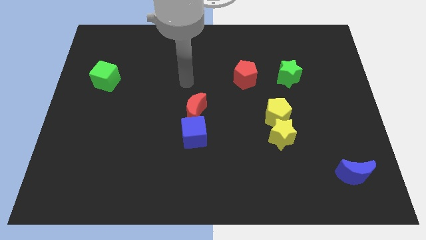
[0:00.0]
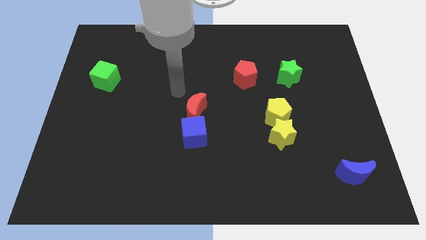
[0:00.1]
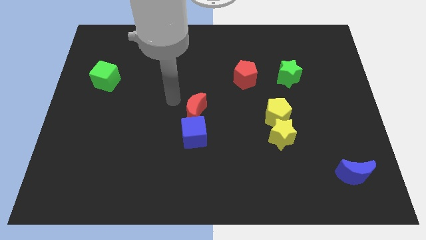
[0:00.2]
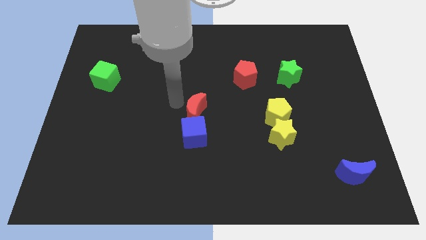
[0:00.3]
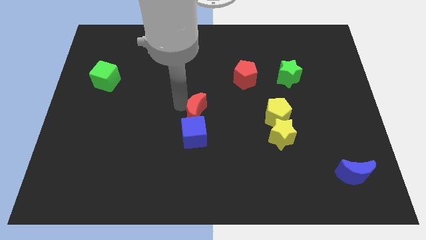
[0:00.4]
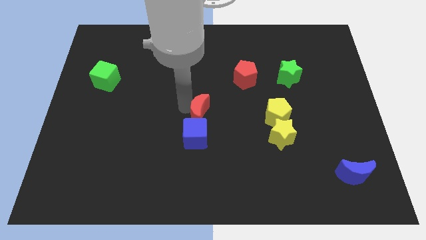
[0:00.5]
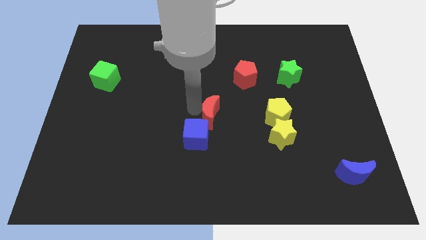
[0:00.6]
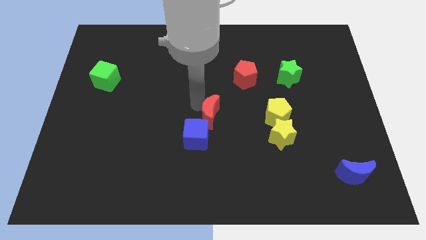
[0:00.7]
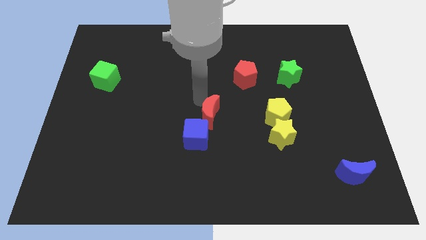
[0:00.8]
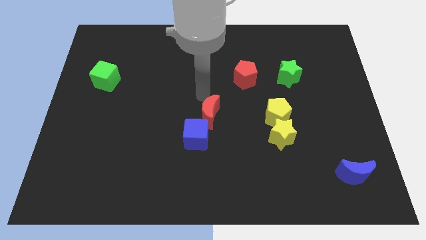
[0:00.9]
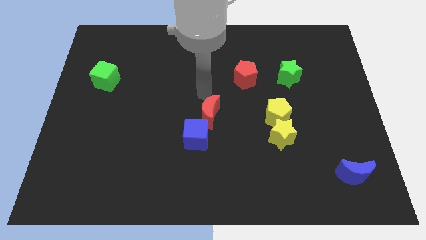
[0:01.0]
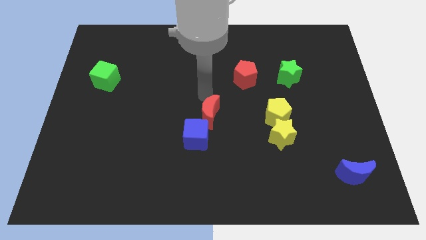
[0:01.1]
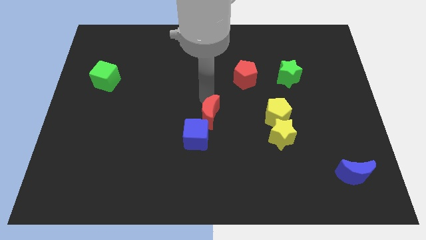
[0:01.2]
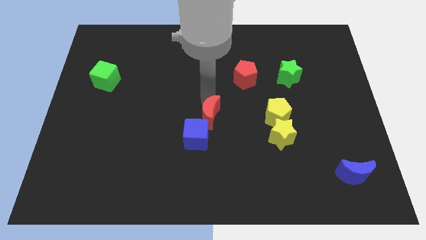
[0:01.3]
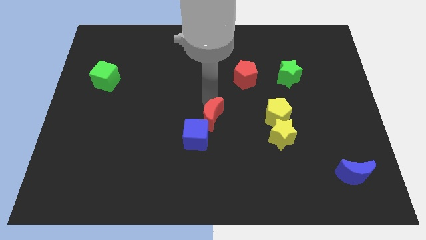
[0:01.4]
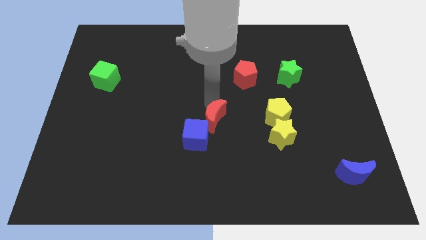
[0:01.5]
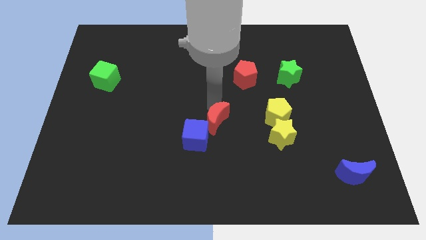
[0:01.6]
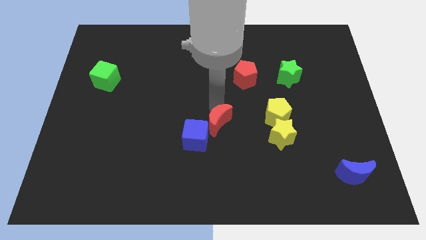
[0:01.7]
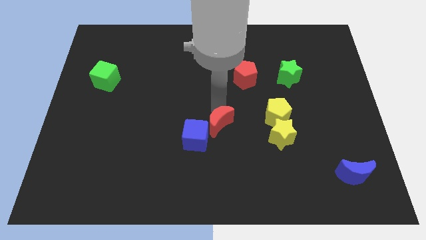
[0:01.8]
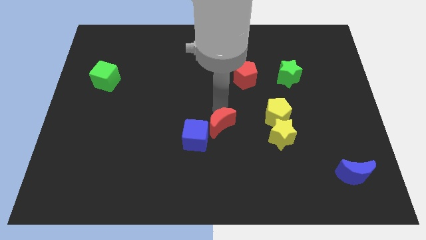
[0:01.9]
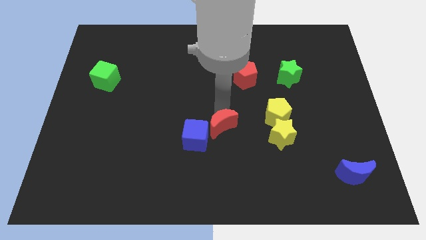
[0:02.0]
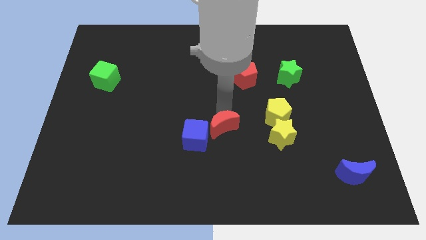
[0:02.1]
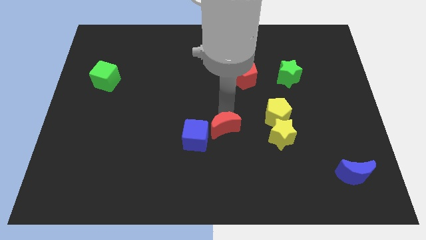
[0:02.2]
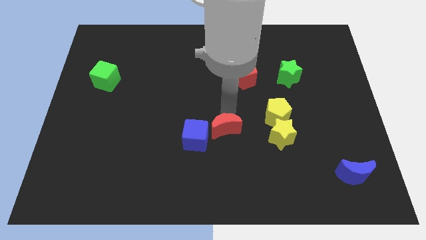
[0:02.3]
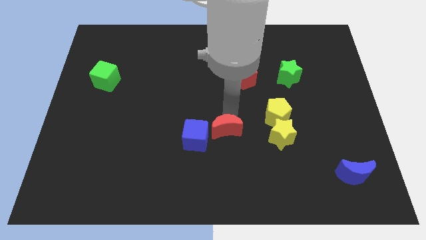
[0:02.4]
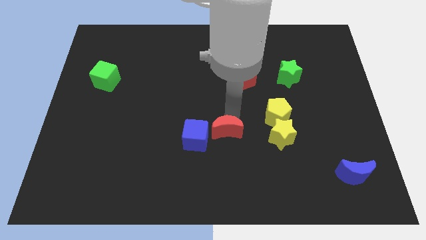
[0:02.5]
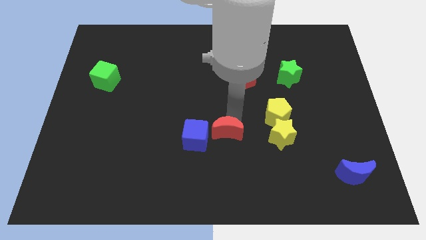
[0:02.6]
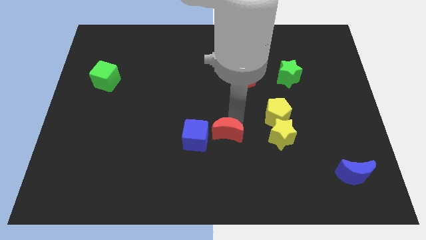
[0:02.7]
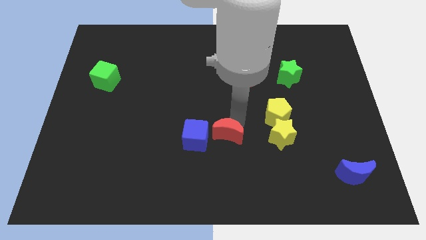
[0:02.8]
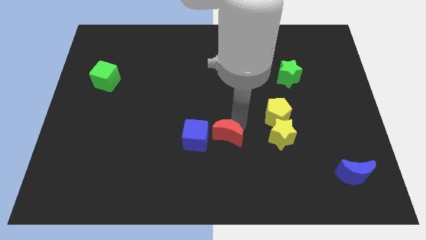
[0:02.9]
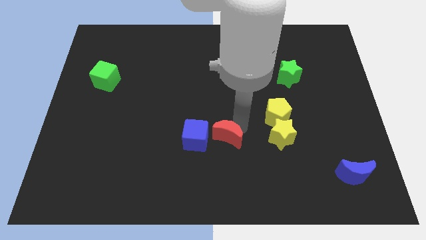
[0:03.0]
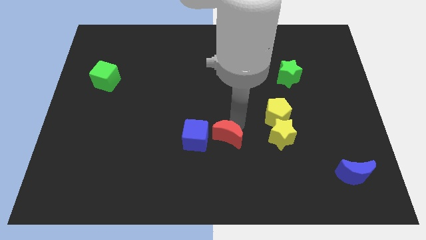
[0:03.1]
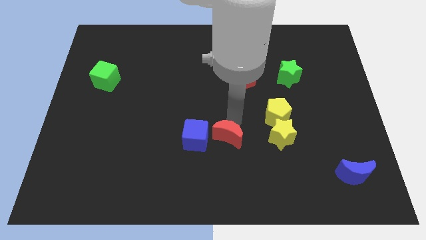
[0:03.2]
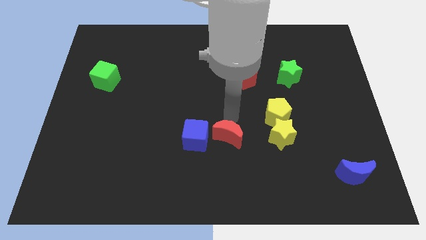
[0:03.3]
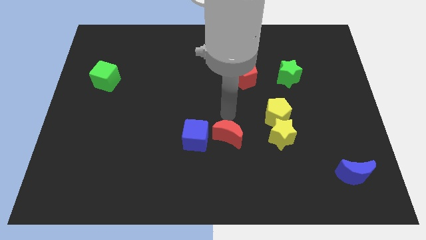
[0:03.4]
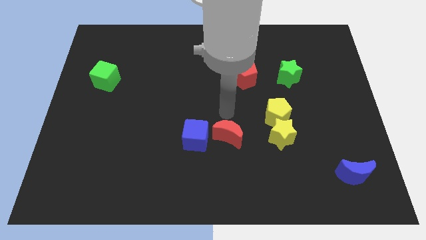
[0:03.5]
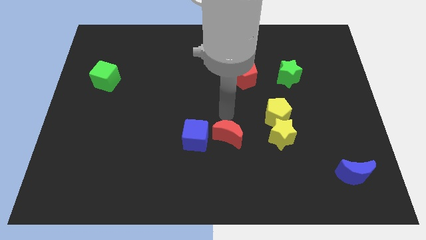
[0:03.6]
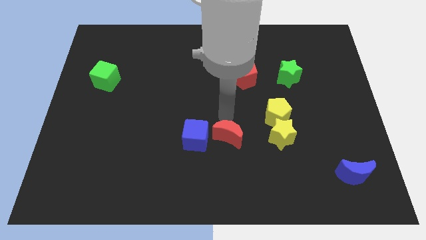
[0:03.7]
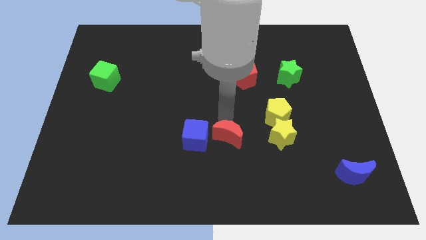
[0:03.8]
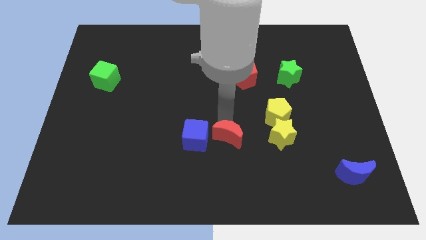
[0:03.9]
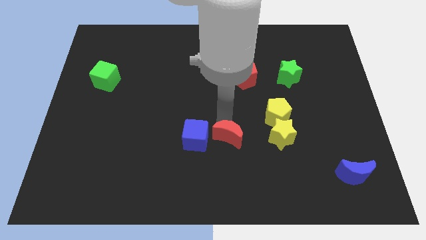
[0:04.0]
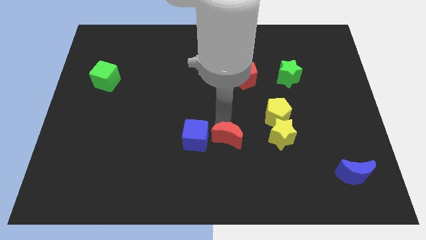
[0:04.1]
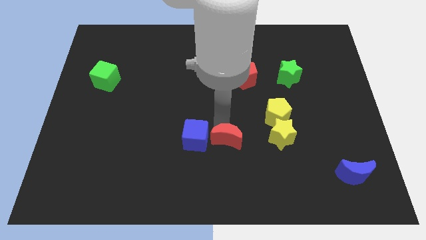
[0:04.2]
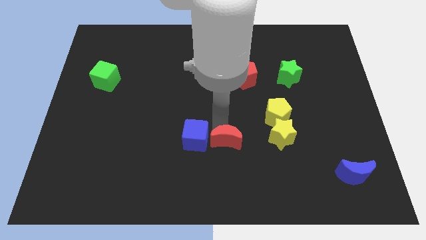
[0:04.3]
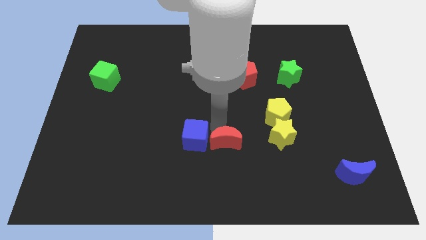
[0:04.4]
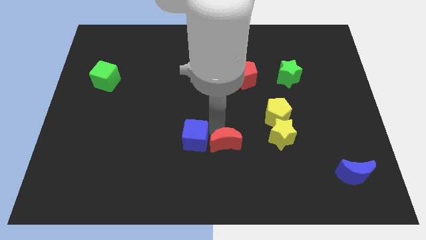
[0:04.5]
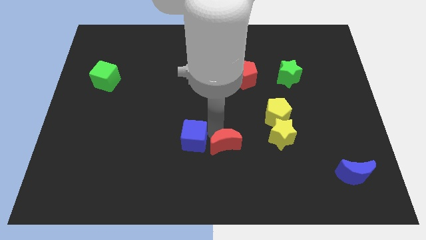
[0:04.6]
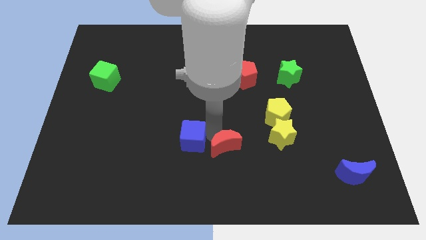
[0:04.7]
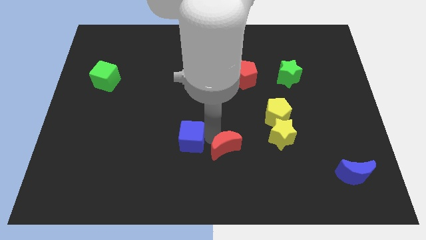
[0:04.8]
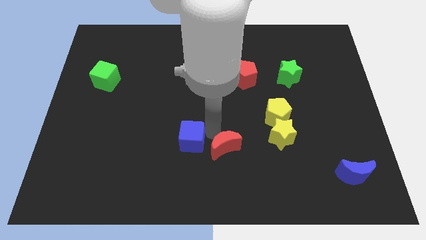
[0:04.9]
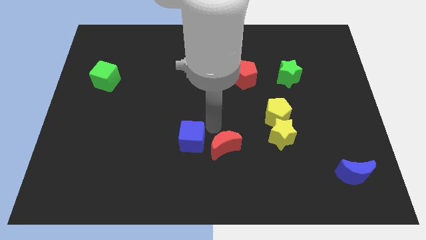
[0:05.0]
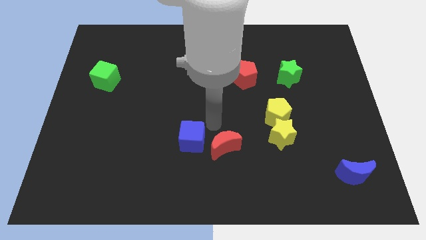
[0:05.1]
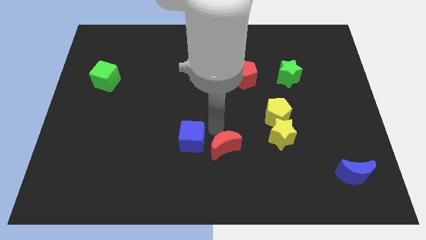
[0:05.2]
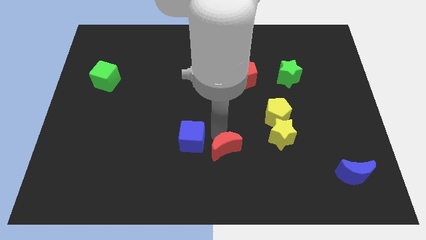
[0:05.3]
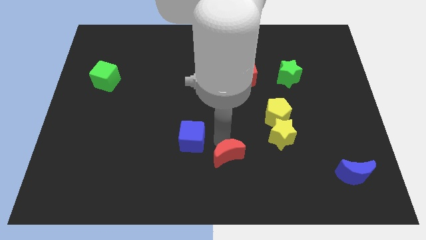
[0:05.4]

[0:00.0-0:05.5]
push the red moon to the bottom

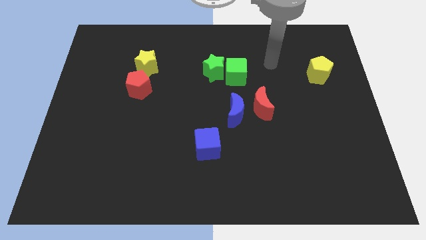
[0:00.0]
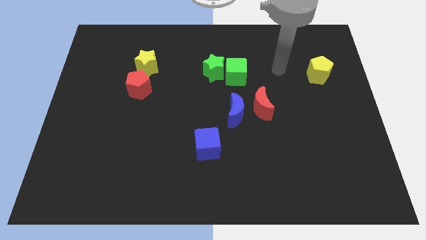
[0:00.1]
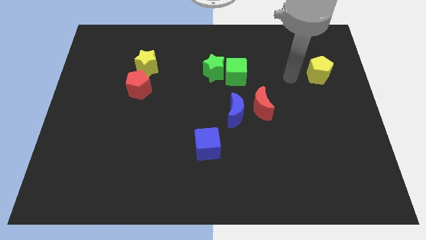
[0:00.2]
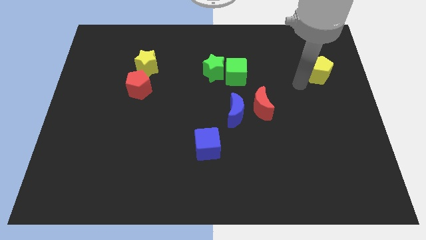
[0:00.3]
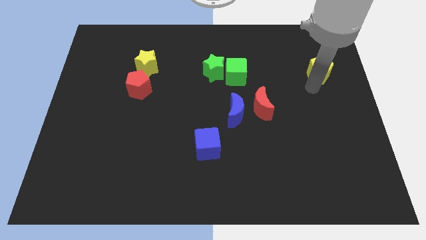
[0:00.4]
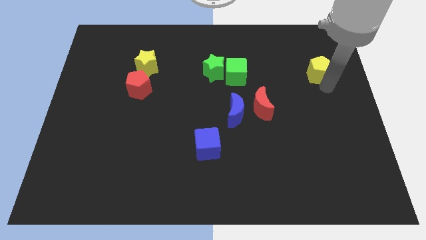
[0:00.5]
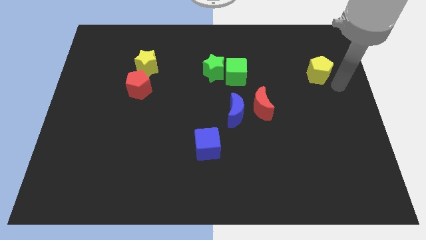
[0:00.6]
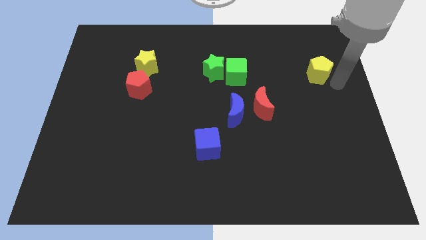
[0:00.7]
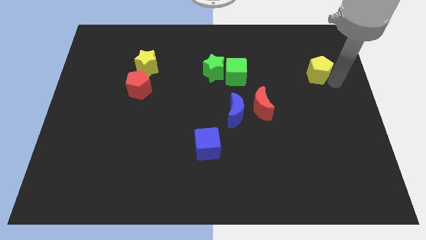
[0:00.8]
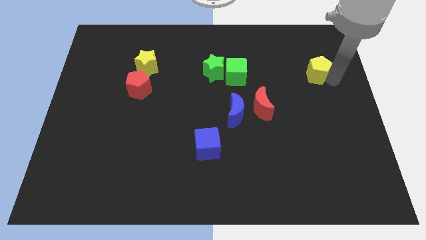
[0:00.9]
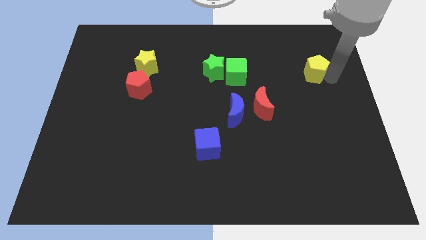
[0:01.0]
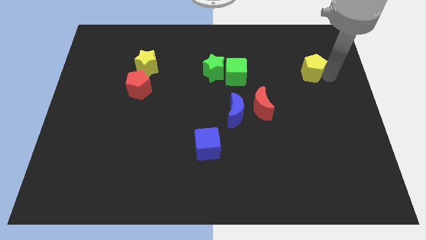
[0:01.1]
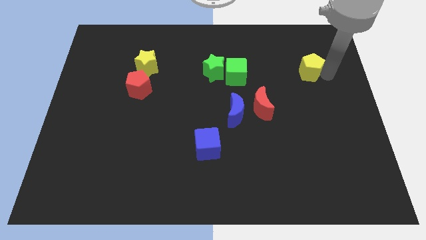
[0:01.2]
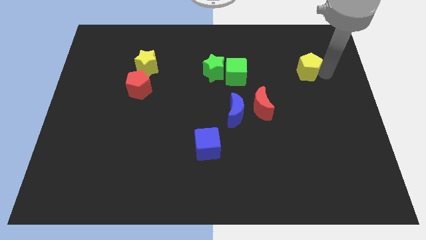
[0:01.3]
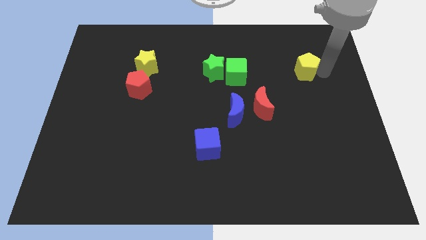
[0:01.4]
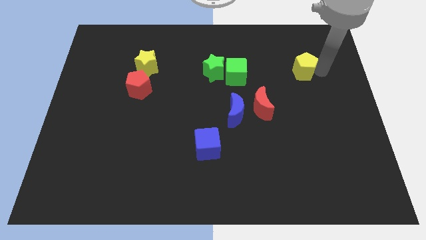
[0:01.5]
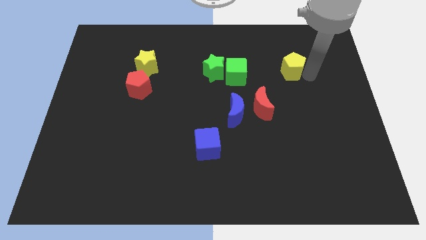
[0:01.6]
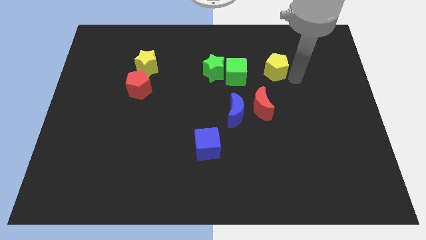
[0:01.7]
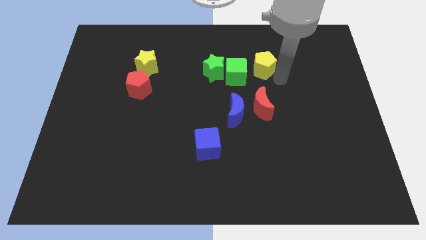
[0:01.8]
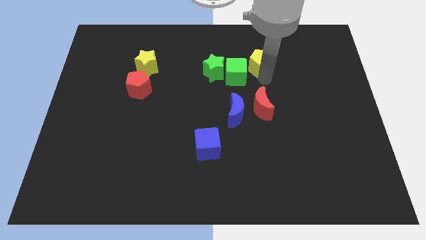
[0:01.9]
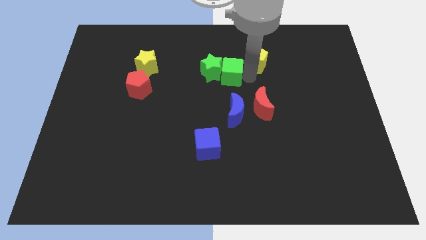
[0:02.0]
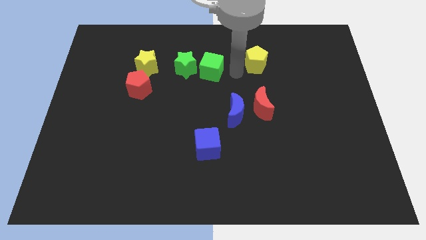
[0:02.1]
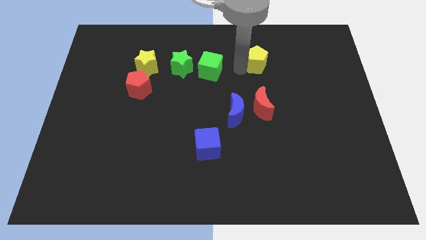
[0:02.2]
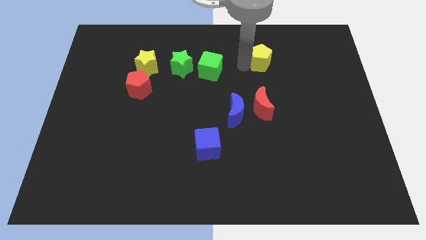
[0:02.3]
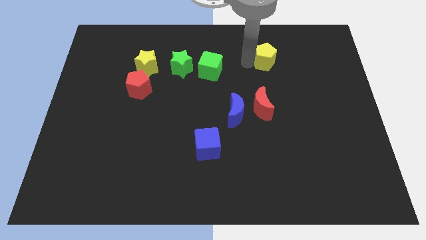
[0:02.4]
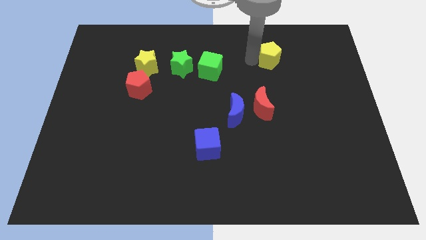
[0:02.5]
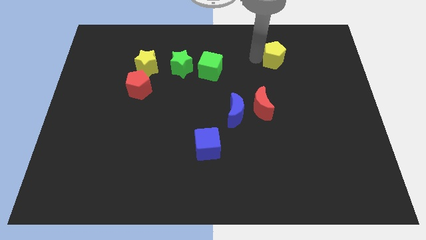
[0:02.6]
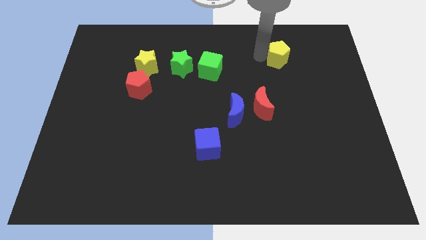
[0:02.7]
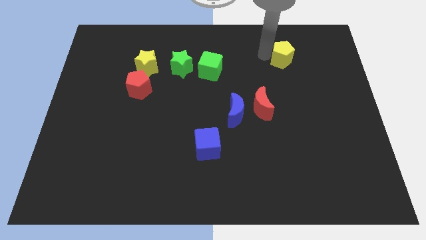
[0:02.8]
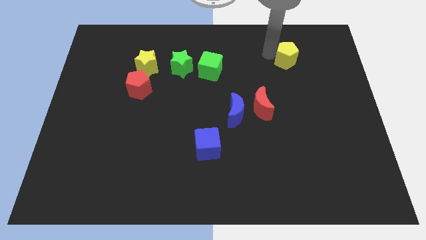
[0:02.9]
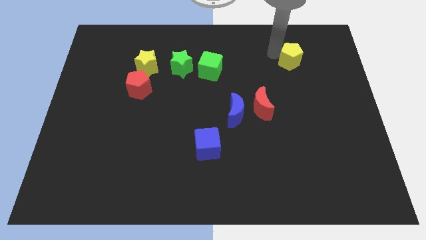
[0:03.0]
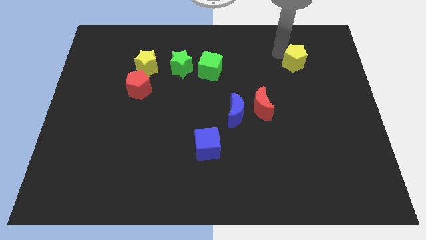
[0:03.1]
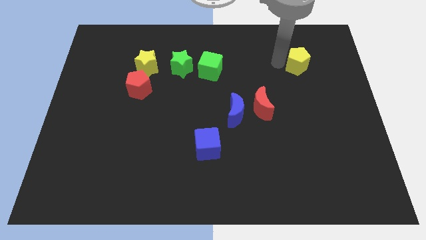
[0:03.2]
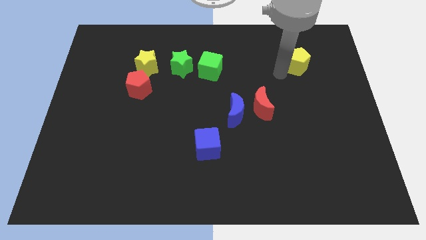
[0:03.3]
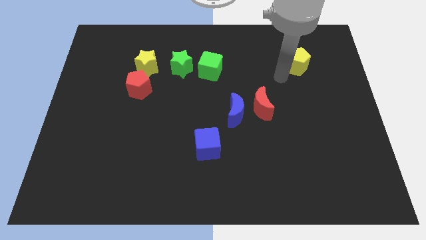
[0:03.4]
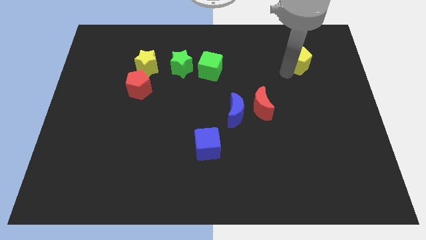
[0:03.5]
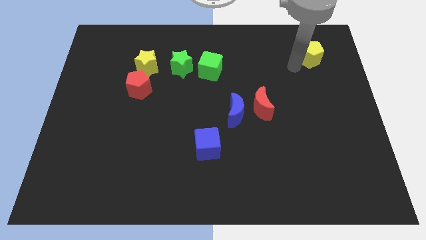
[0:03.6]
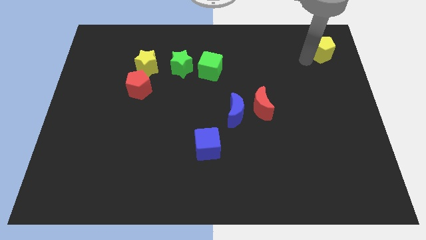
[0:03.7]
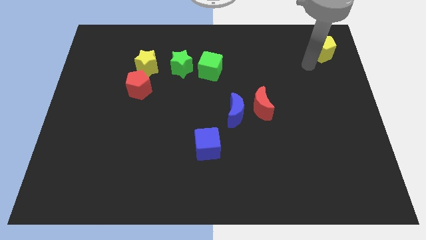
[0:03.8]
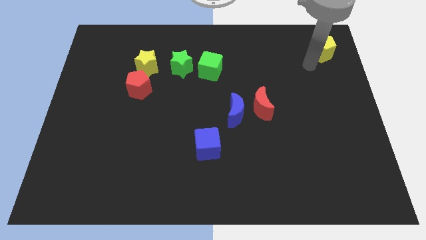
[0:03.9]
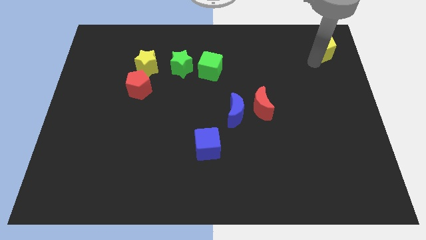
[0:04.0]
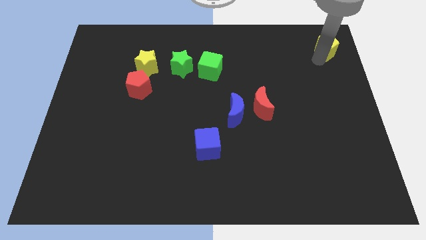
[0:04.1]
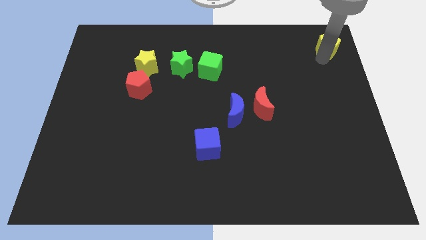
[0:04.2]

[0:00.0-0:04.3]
push the yellow pentagon to the upper right corner
